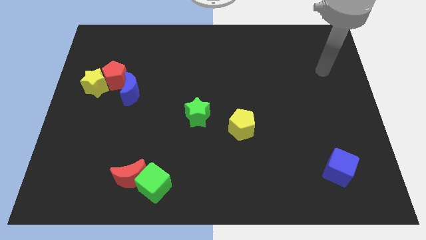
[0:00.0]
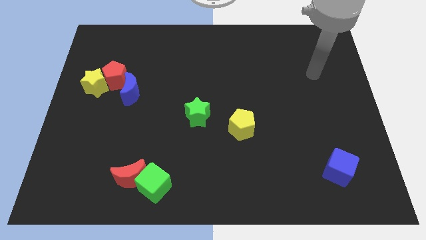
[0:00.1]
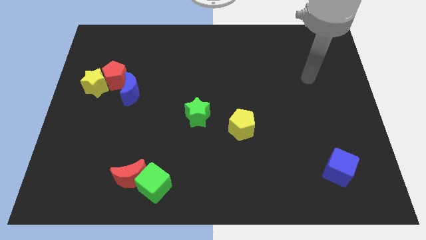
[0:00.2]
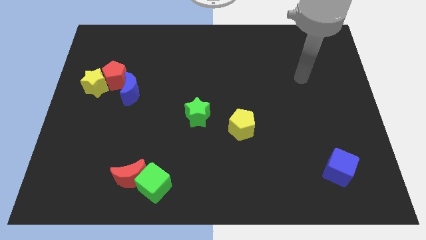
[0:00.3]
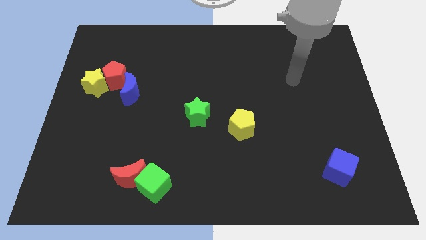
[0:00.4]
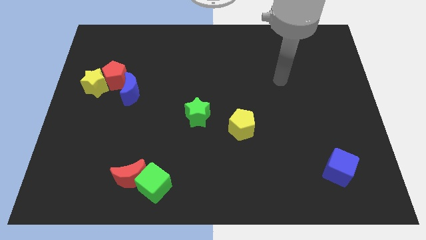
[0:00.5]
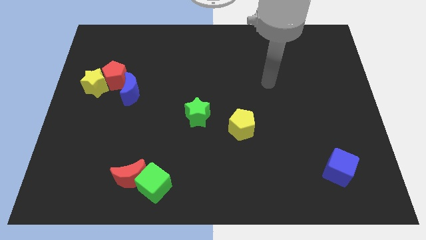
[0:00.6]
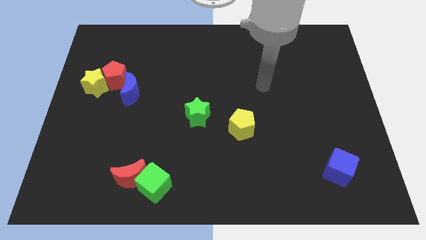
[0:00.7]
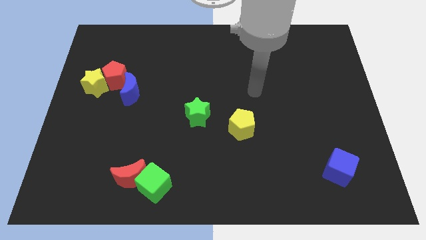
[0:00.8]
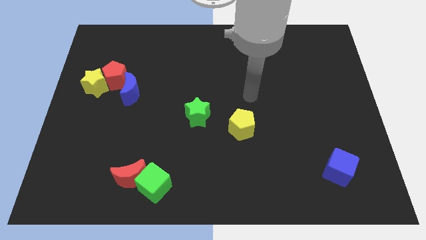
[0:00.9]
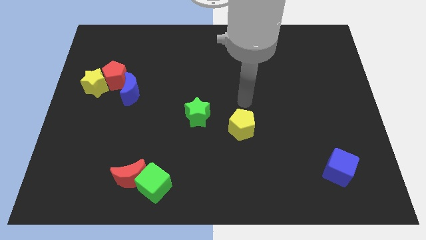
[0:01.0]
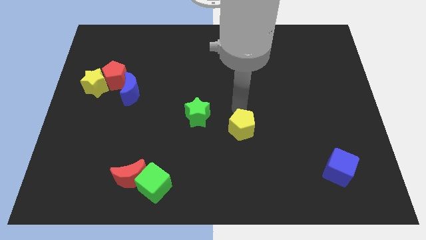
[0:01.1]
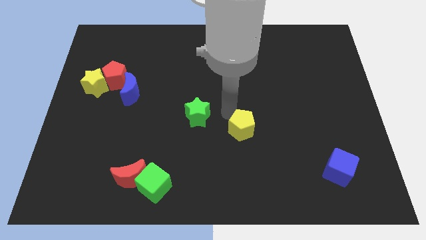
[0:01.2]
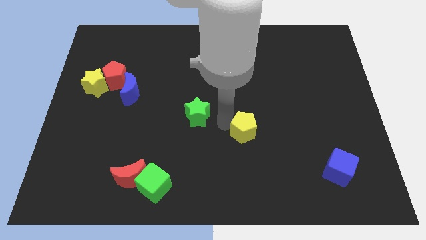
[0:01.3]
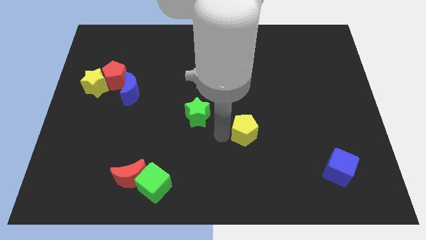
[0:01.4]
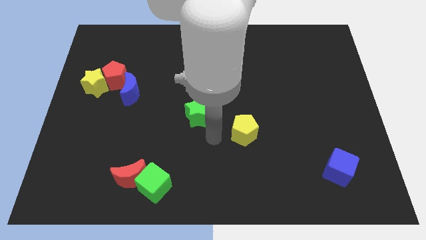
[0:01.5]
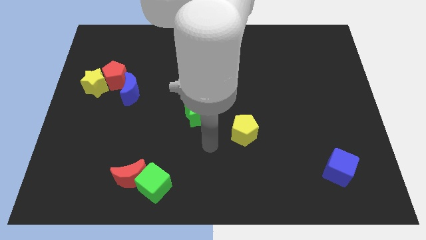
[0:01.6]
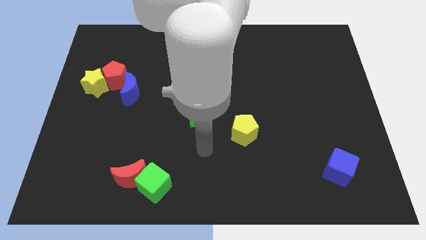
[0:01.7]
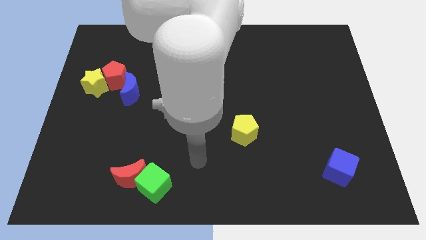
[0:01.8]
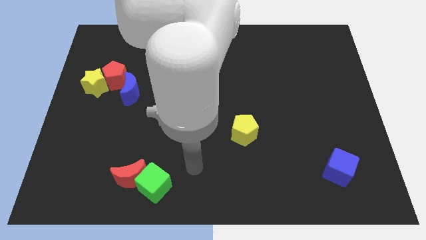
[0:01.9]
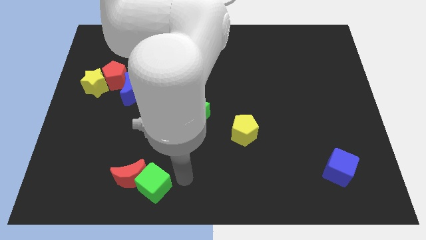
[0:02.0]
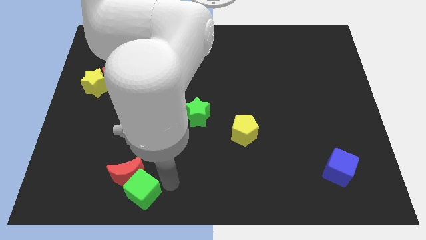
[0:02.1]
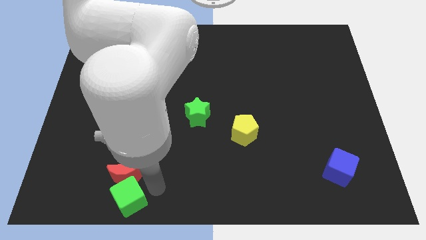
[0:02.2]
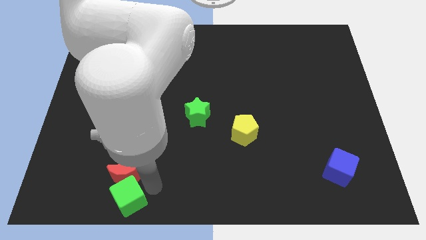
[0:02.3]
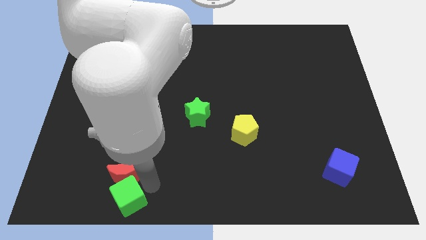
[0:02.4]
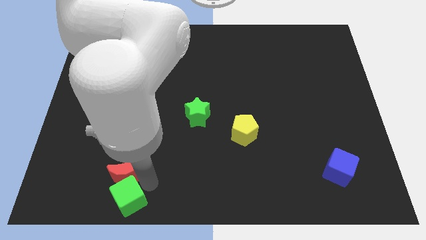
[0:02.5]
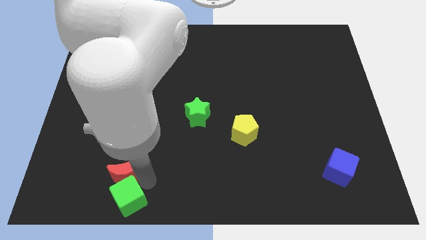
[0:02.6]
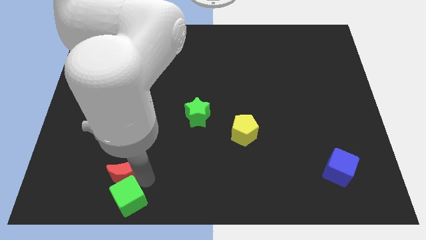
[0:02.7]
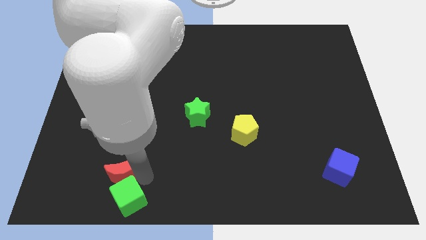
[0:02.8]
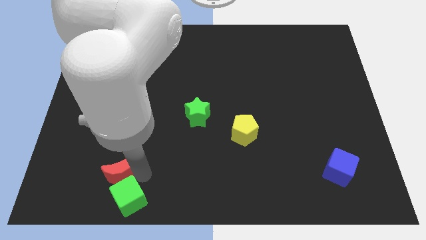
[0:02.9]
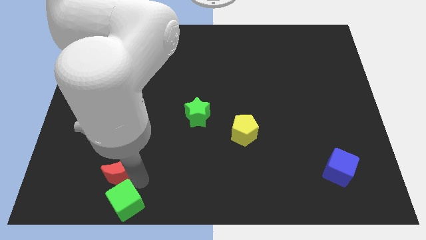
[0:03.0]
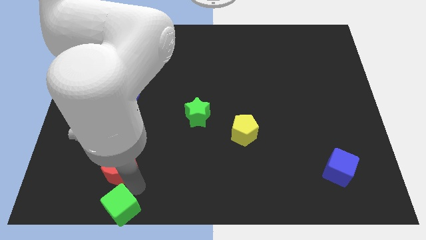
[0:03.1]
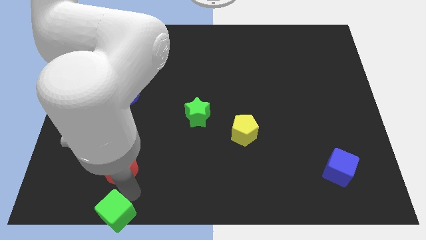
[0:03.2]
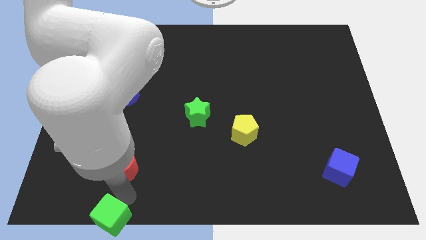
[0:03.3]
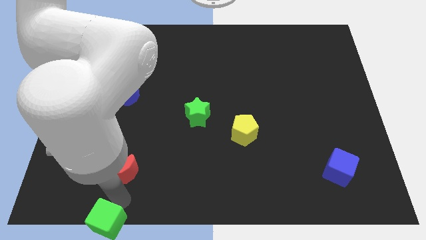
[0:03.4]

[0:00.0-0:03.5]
pull the red moon apart from the green cube

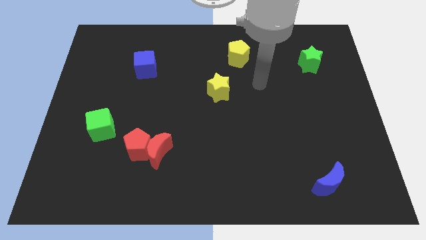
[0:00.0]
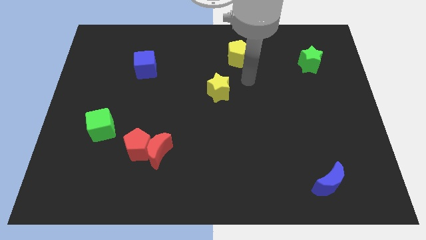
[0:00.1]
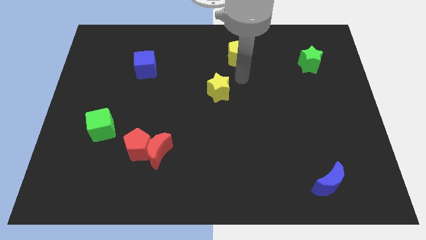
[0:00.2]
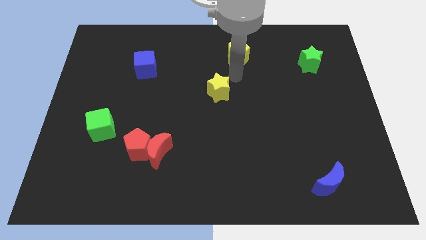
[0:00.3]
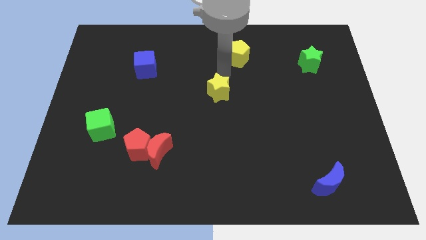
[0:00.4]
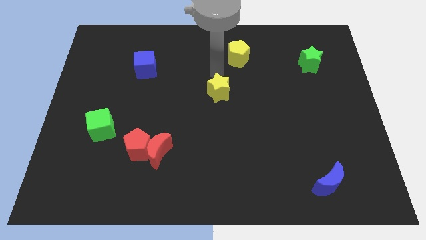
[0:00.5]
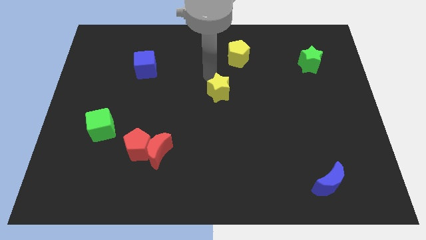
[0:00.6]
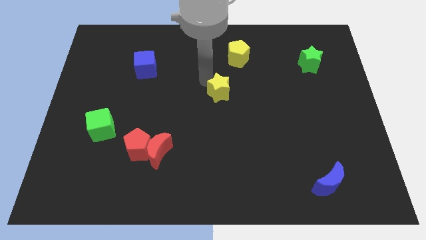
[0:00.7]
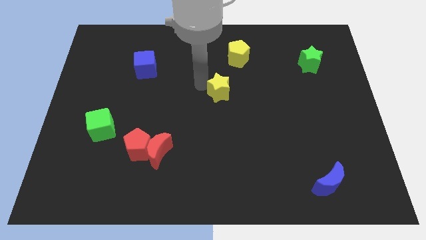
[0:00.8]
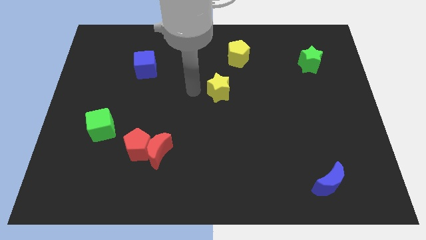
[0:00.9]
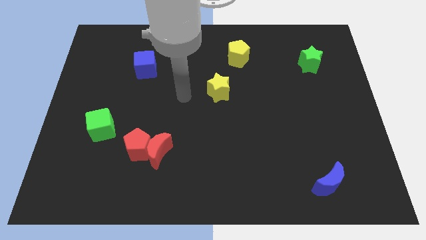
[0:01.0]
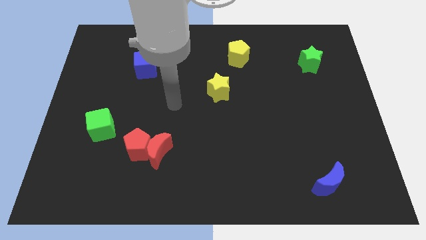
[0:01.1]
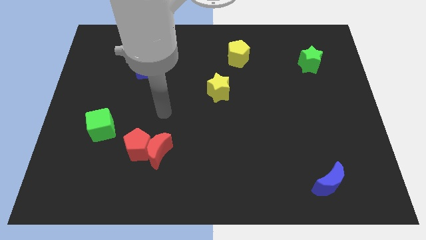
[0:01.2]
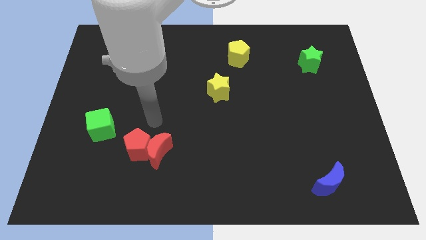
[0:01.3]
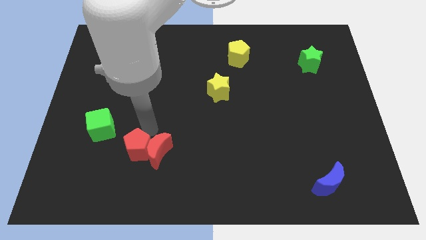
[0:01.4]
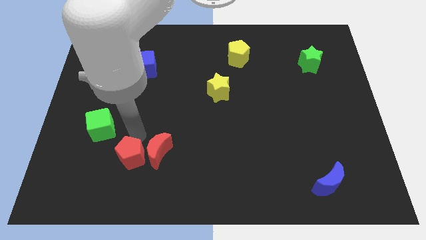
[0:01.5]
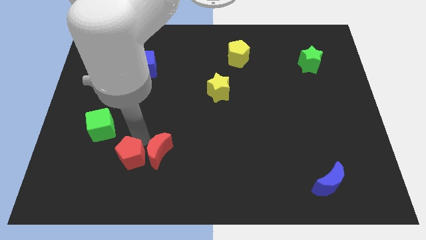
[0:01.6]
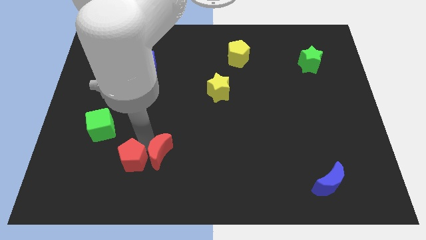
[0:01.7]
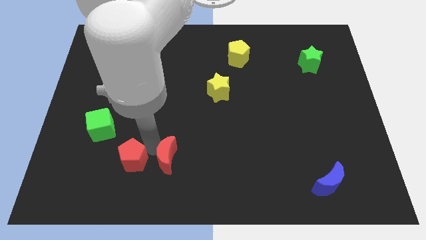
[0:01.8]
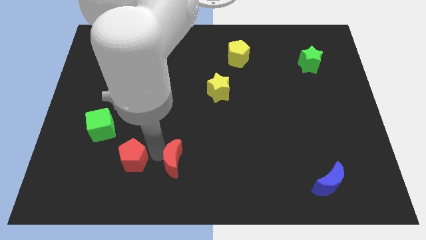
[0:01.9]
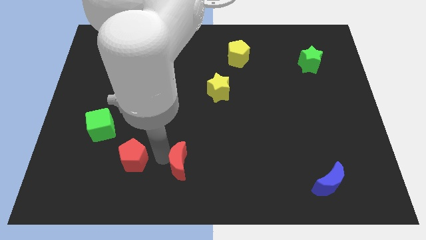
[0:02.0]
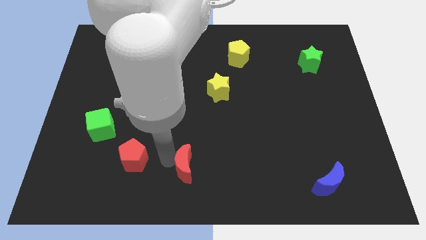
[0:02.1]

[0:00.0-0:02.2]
separate the red moon from the red pentagon

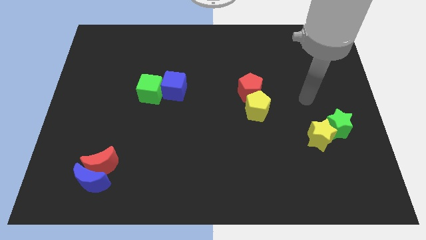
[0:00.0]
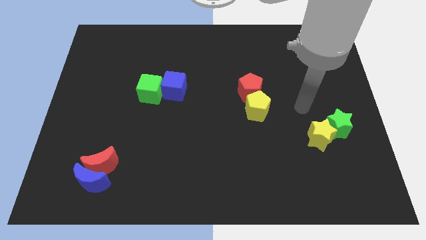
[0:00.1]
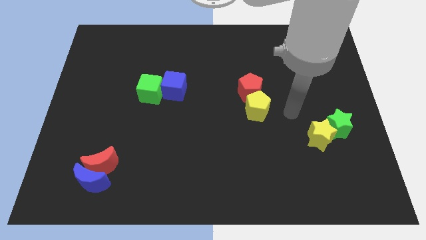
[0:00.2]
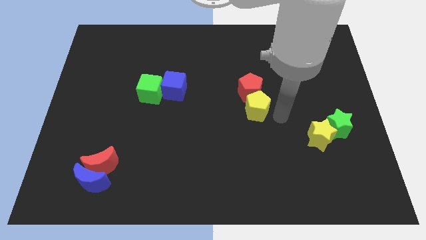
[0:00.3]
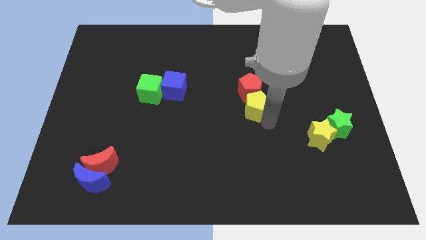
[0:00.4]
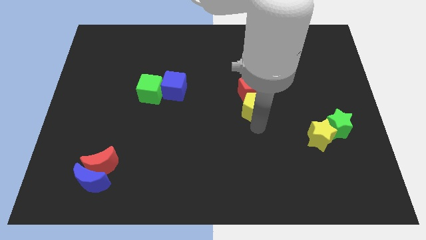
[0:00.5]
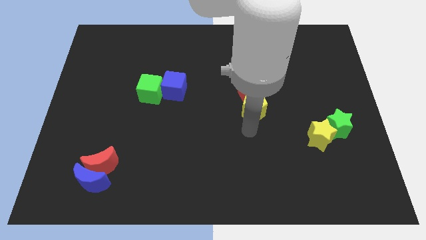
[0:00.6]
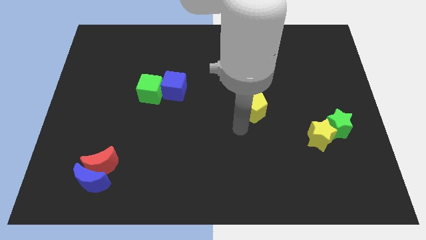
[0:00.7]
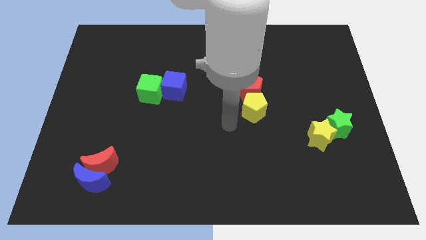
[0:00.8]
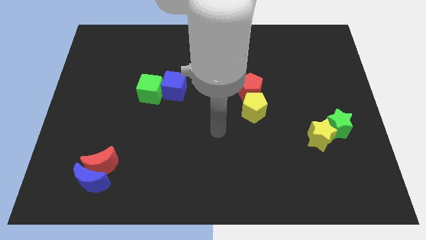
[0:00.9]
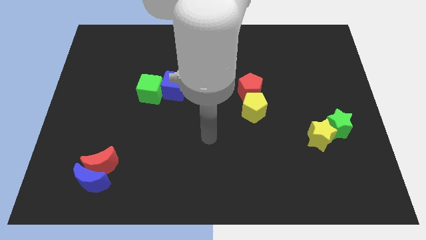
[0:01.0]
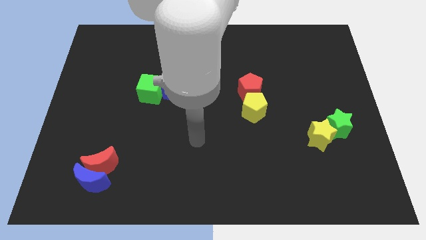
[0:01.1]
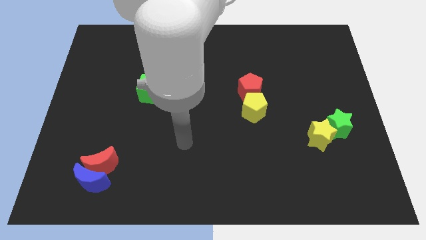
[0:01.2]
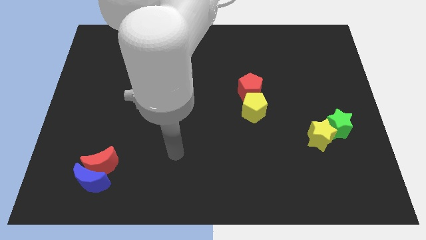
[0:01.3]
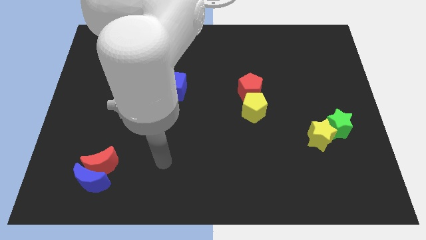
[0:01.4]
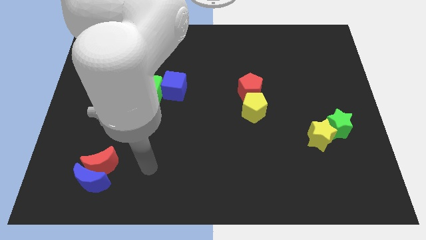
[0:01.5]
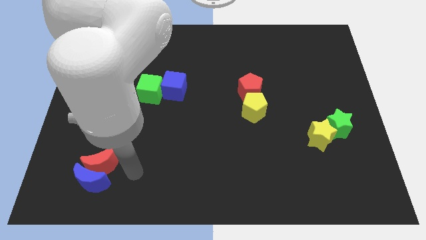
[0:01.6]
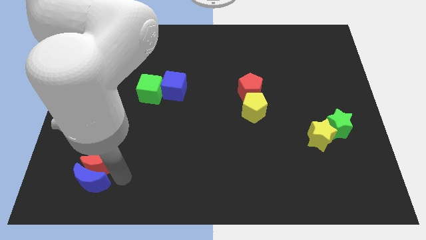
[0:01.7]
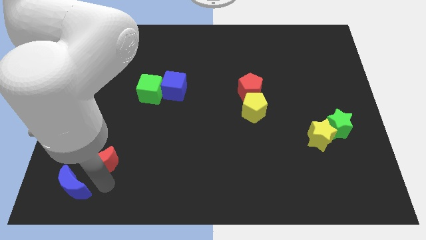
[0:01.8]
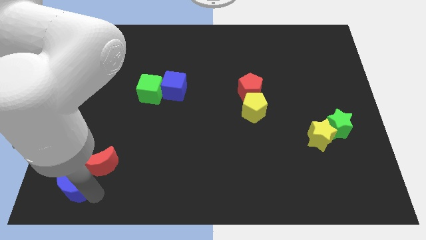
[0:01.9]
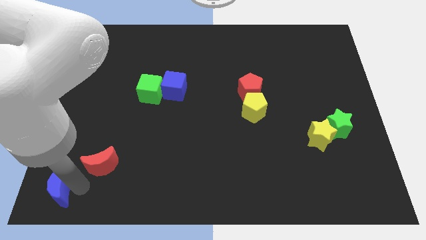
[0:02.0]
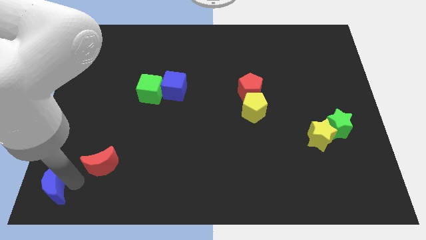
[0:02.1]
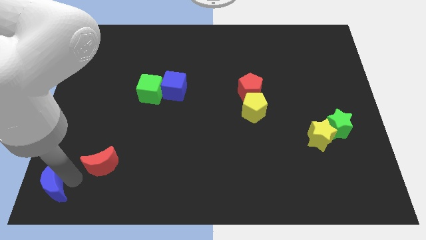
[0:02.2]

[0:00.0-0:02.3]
pull the red moon apart from the blue moon

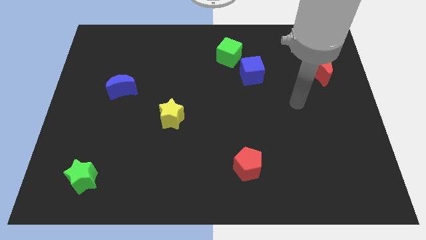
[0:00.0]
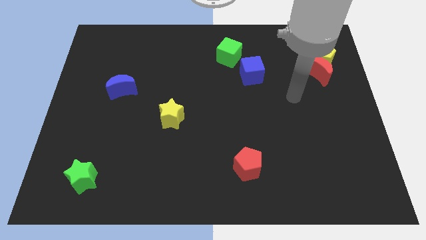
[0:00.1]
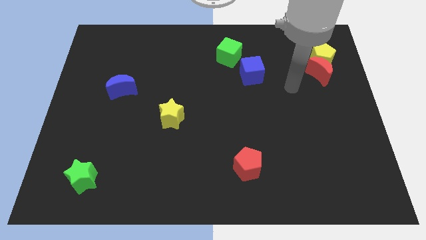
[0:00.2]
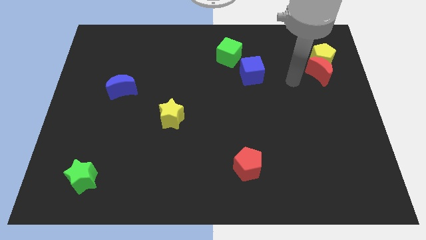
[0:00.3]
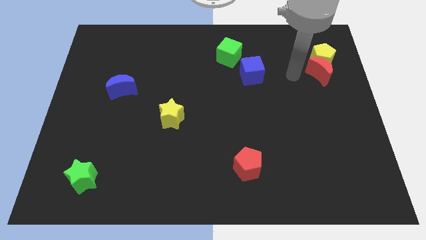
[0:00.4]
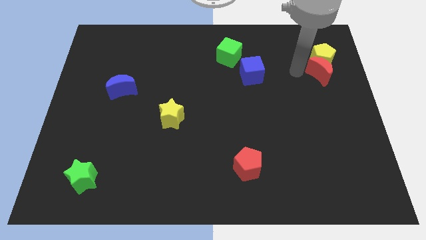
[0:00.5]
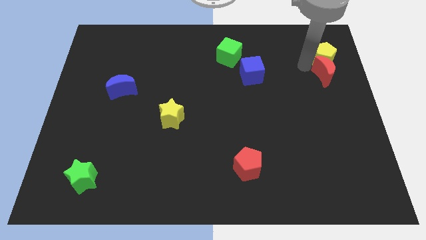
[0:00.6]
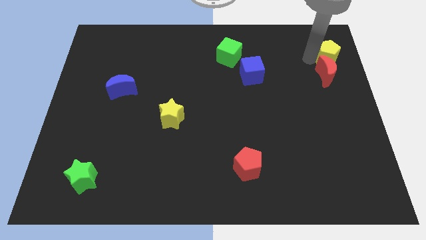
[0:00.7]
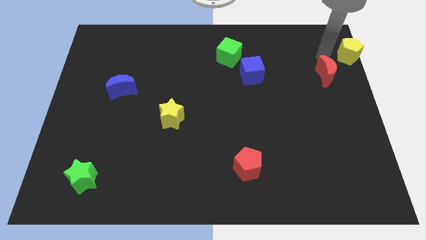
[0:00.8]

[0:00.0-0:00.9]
separate the red moon from the yellow pentagon

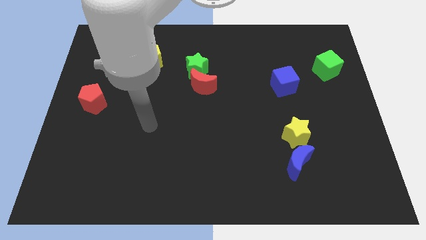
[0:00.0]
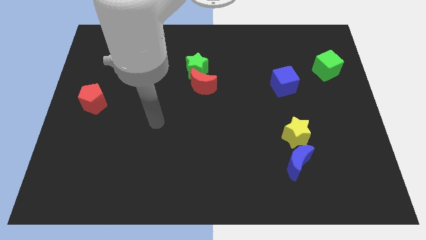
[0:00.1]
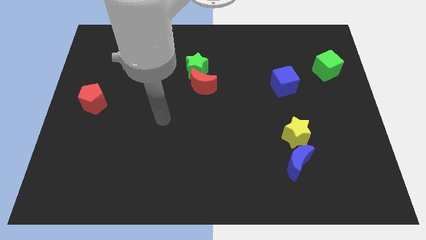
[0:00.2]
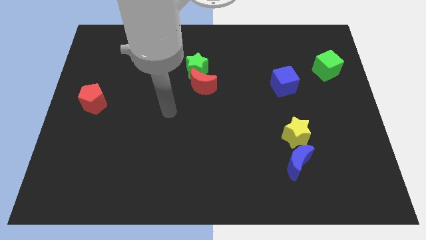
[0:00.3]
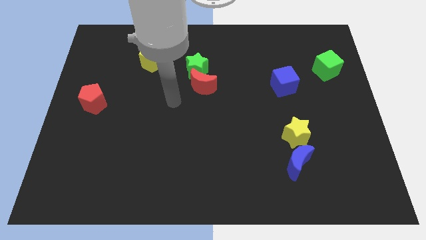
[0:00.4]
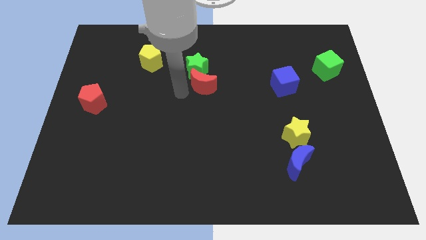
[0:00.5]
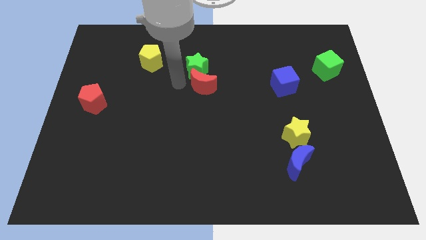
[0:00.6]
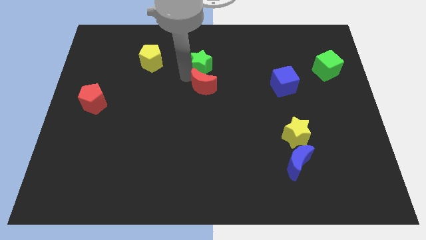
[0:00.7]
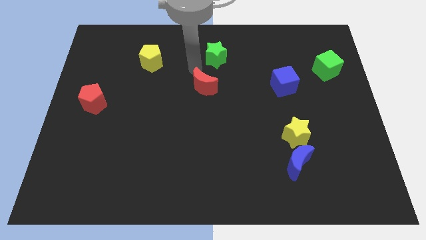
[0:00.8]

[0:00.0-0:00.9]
separate the red moon from the green star
